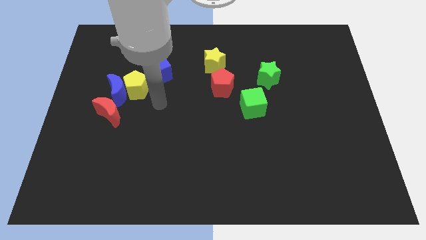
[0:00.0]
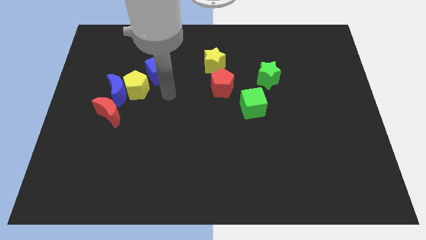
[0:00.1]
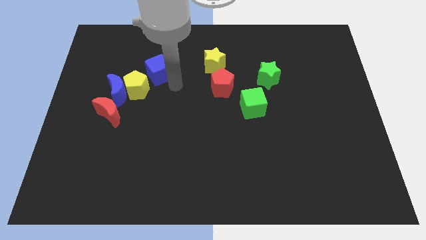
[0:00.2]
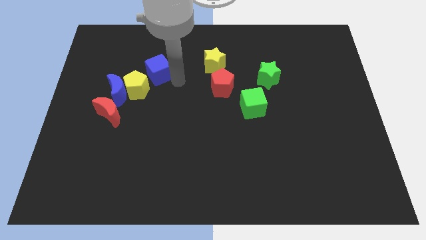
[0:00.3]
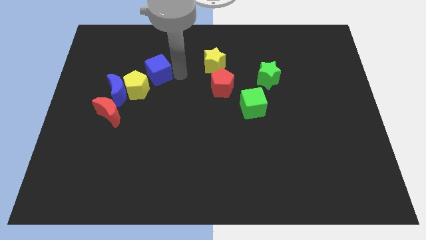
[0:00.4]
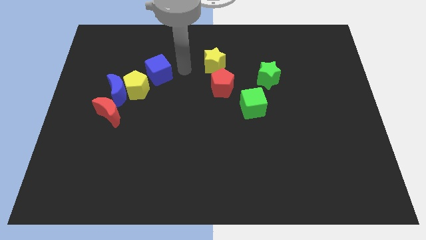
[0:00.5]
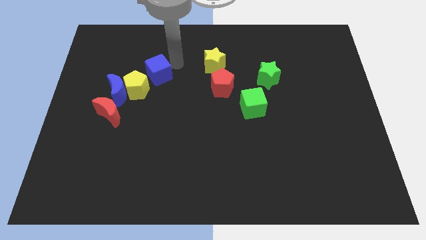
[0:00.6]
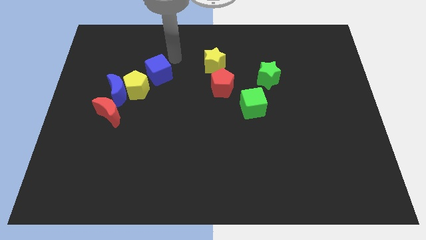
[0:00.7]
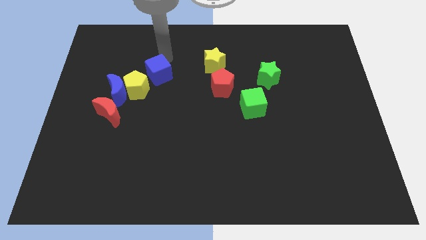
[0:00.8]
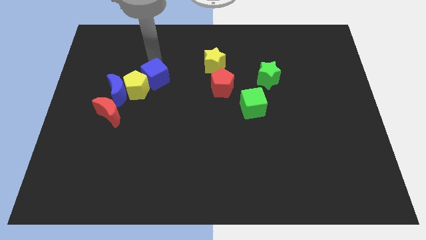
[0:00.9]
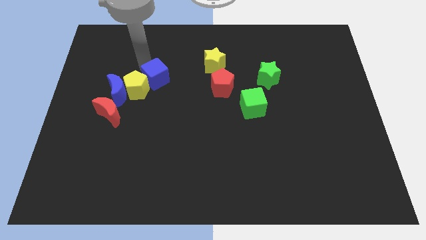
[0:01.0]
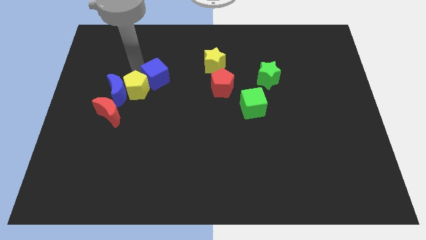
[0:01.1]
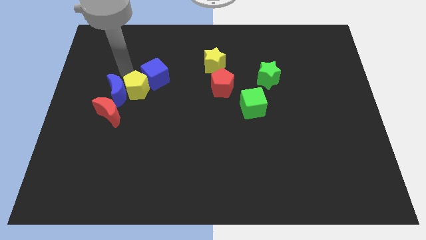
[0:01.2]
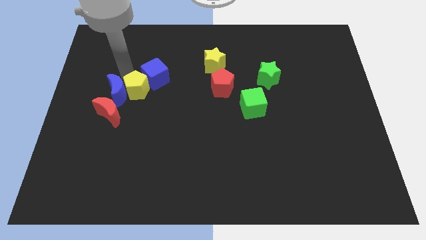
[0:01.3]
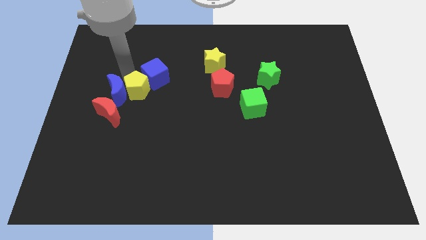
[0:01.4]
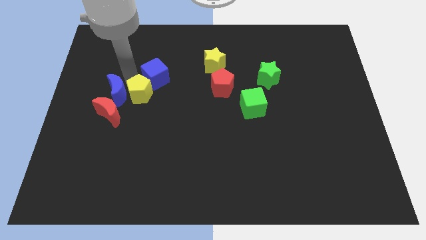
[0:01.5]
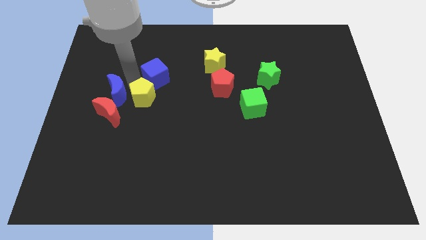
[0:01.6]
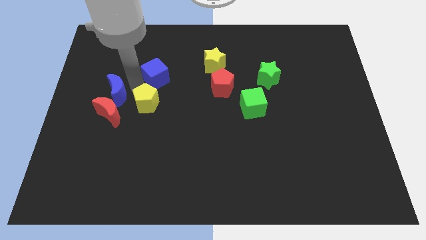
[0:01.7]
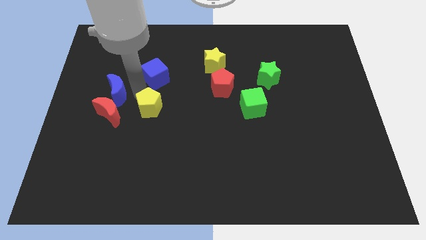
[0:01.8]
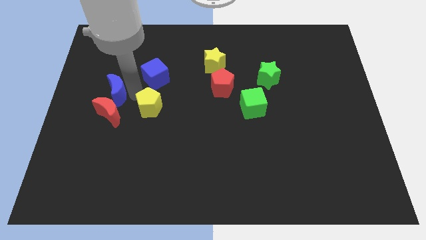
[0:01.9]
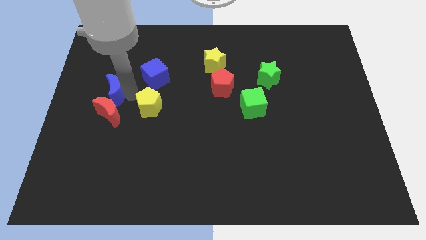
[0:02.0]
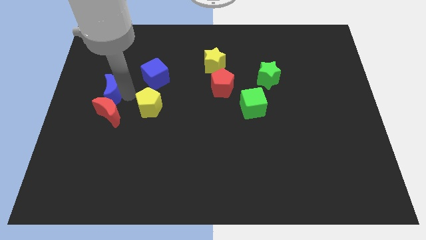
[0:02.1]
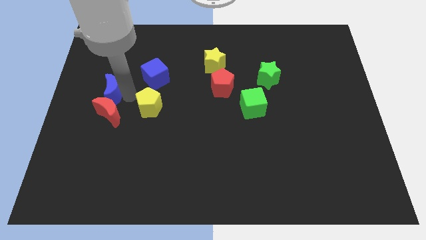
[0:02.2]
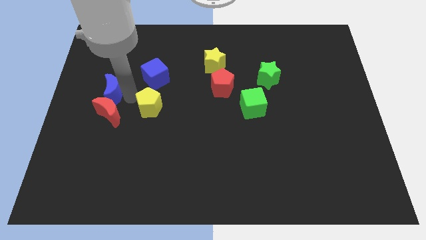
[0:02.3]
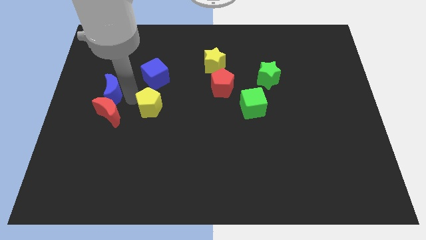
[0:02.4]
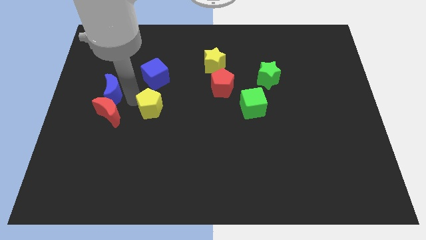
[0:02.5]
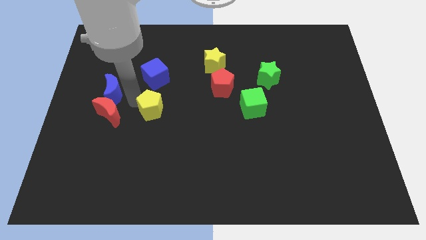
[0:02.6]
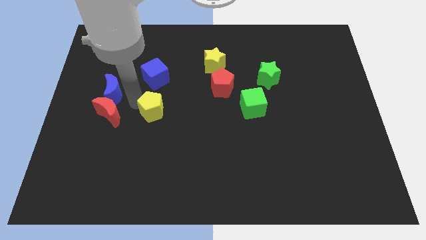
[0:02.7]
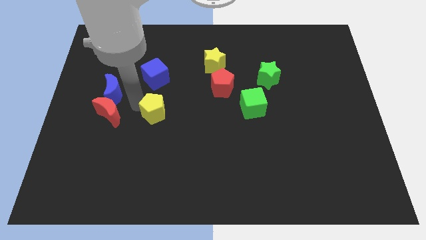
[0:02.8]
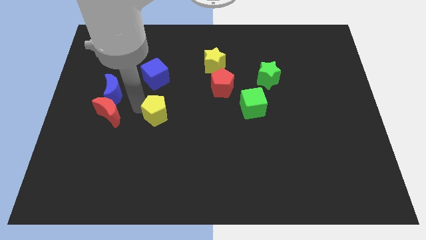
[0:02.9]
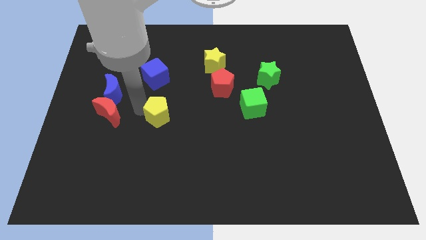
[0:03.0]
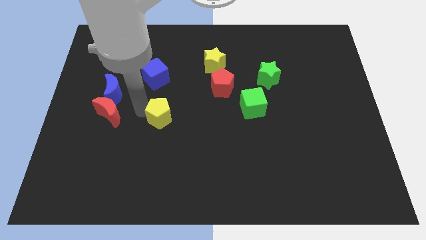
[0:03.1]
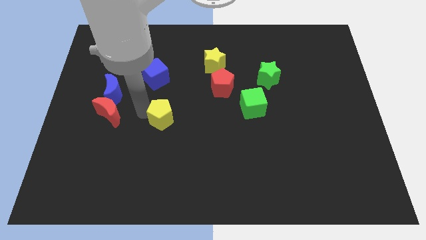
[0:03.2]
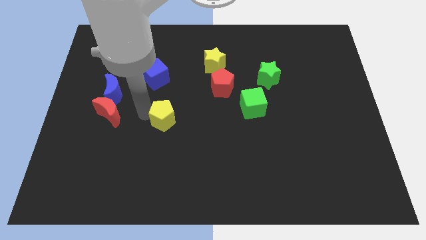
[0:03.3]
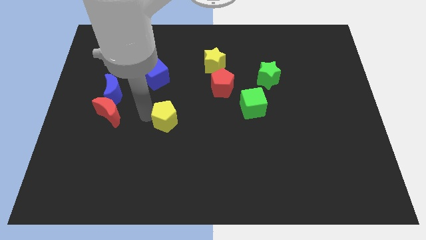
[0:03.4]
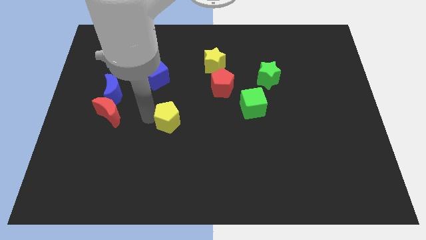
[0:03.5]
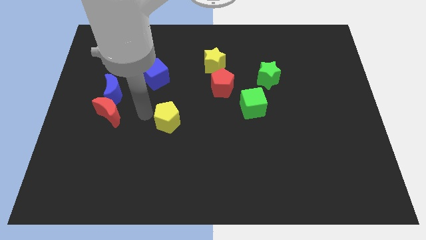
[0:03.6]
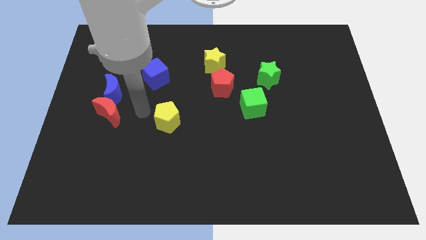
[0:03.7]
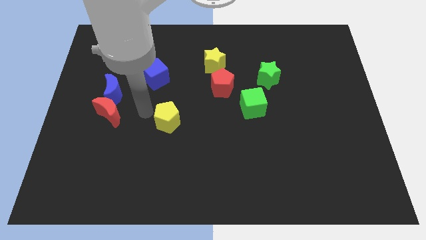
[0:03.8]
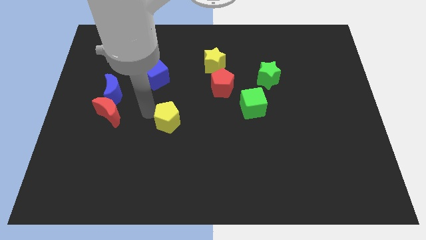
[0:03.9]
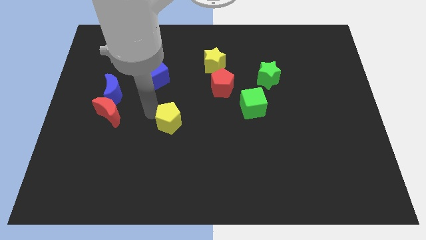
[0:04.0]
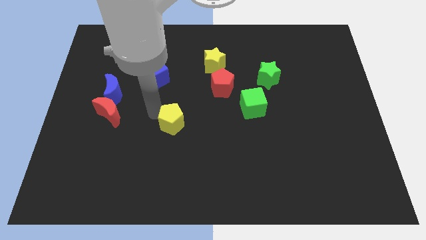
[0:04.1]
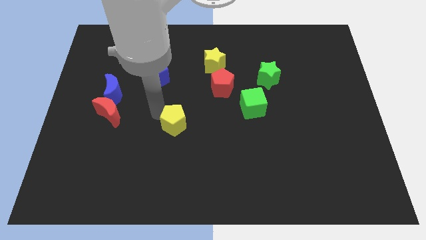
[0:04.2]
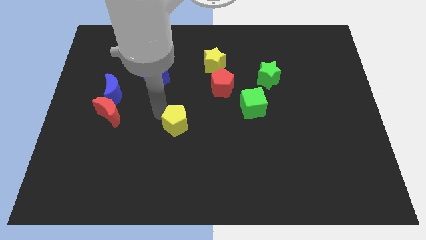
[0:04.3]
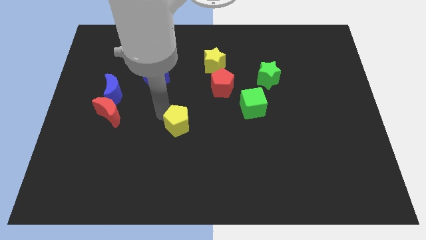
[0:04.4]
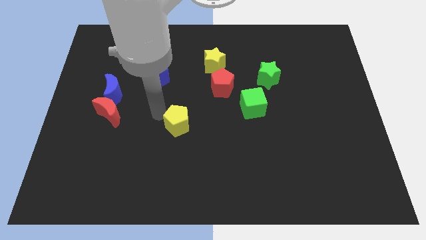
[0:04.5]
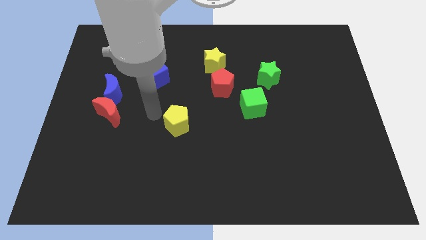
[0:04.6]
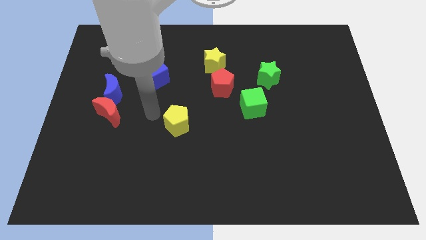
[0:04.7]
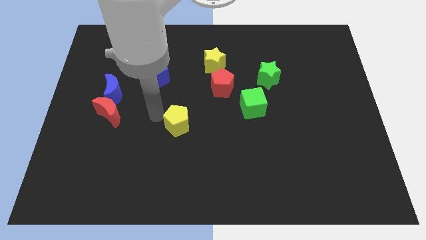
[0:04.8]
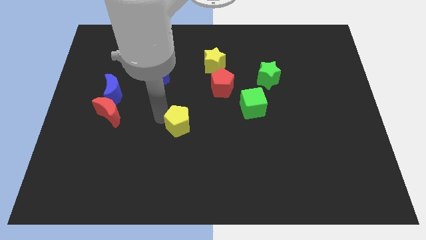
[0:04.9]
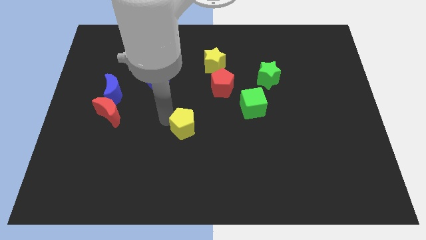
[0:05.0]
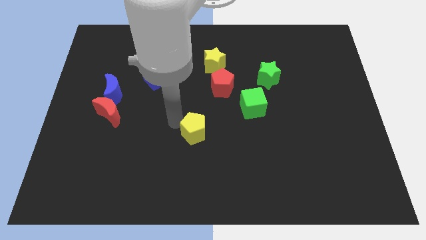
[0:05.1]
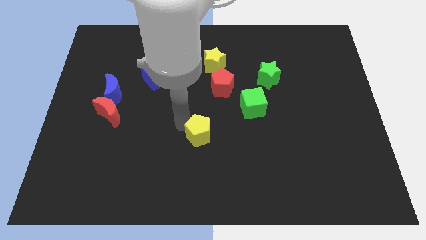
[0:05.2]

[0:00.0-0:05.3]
push the yellow pentagon diagonally down and right

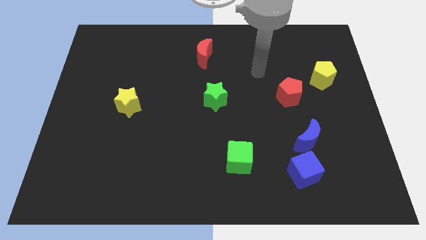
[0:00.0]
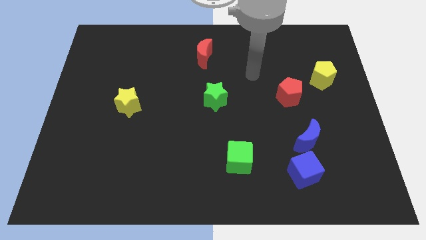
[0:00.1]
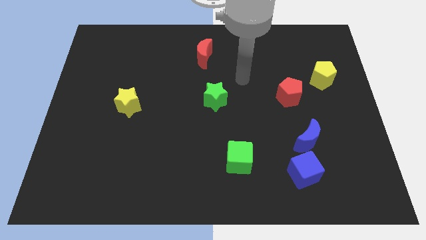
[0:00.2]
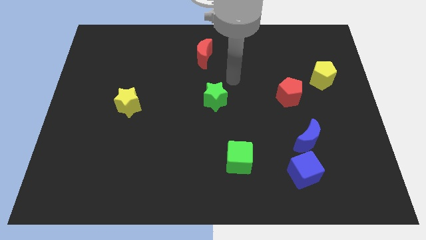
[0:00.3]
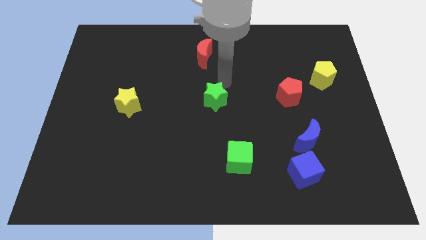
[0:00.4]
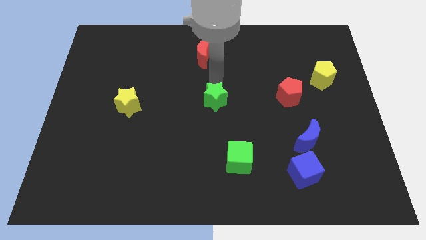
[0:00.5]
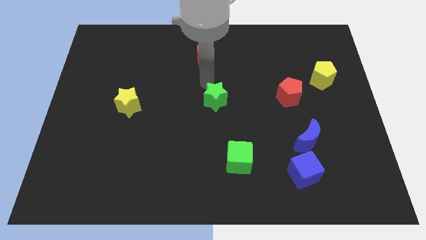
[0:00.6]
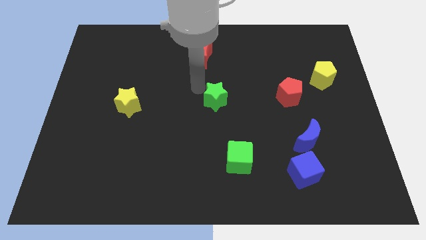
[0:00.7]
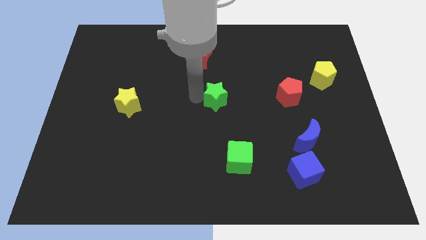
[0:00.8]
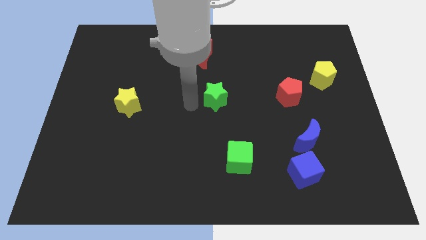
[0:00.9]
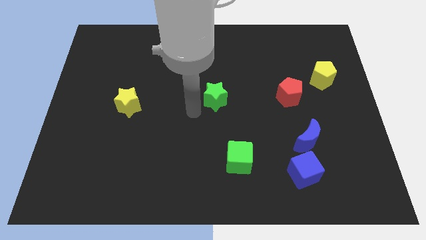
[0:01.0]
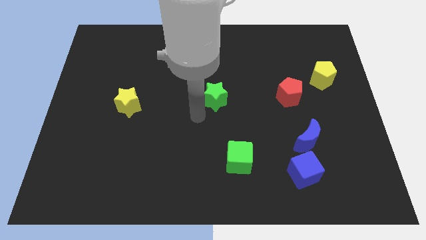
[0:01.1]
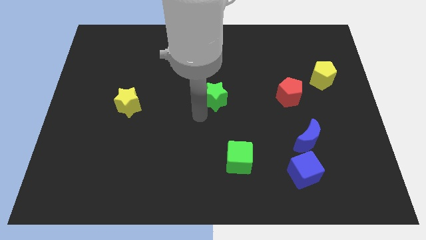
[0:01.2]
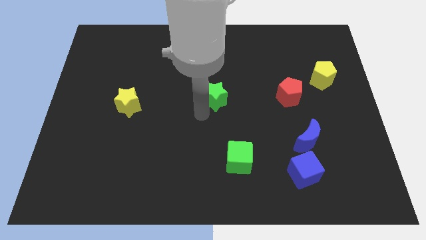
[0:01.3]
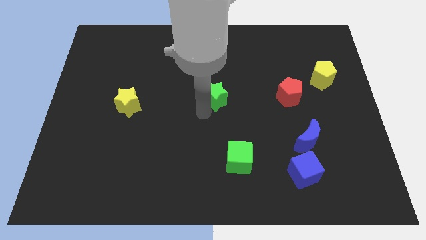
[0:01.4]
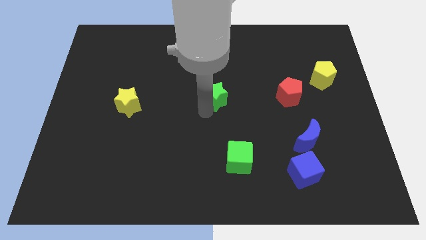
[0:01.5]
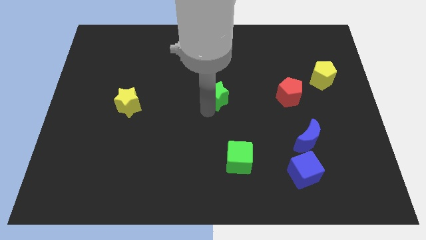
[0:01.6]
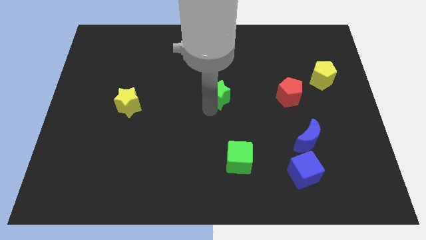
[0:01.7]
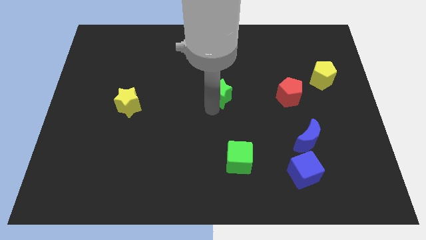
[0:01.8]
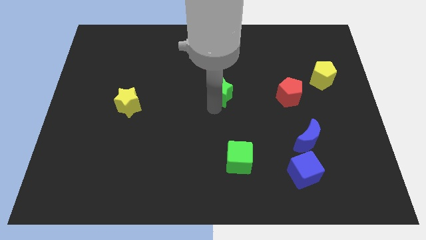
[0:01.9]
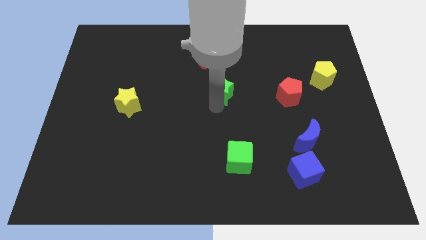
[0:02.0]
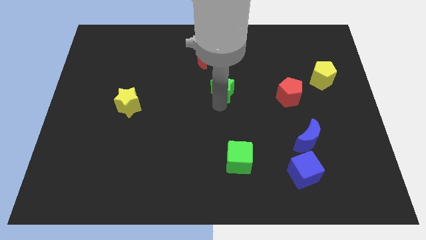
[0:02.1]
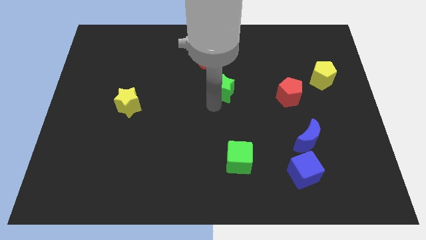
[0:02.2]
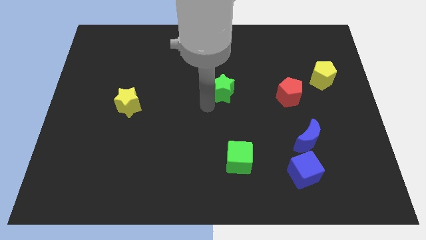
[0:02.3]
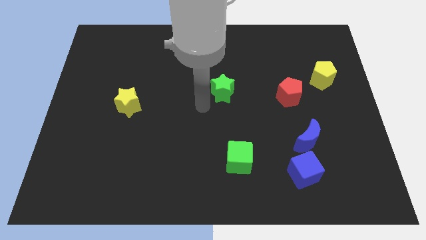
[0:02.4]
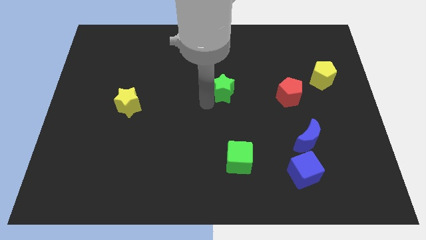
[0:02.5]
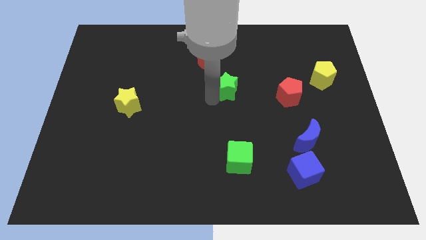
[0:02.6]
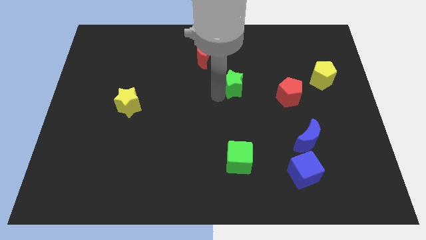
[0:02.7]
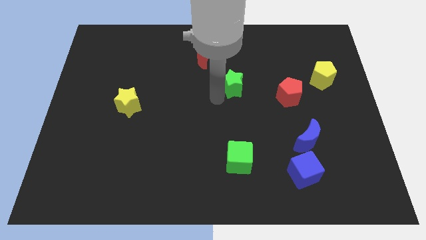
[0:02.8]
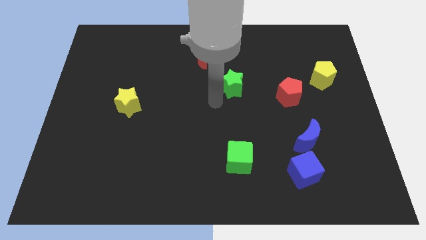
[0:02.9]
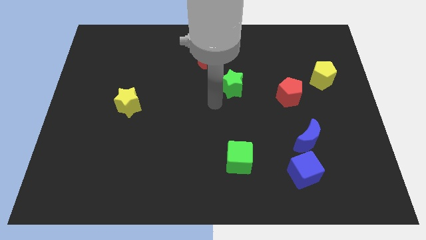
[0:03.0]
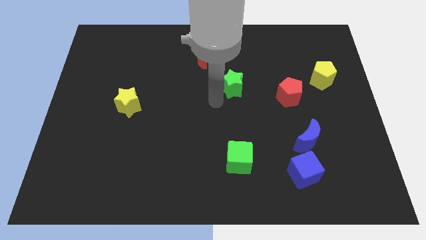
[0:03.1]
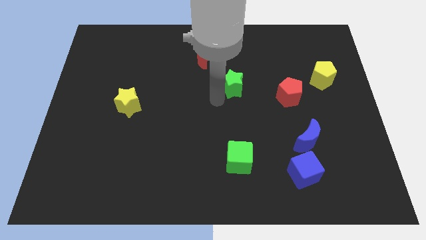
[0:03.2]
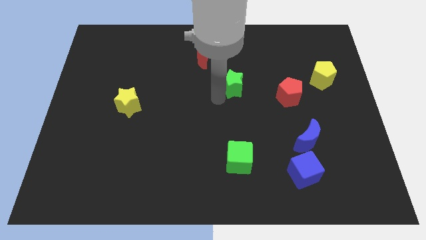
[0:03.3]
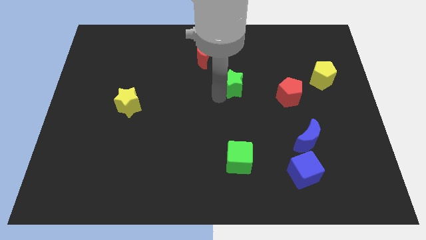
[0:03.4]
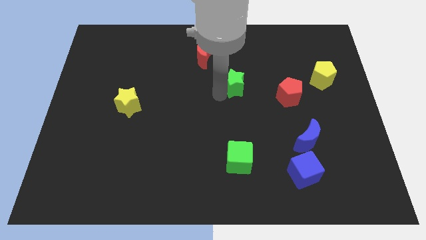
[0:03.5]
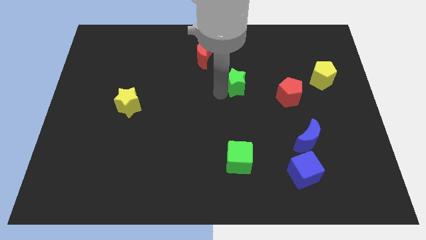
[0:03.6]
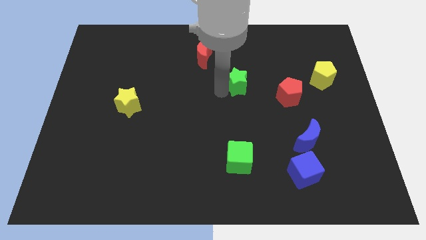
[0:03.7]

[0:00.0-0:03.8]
move the green star a bit upwards and then right
